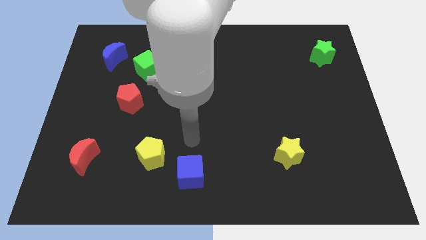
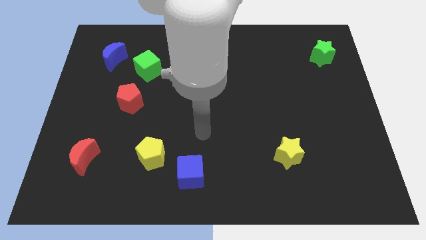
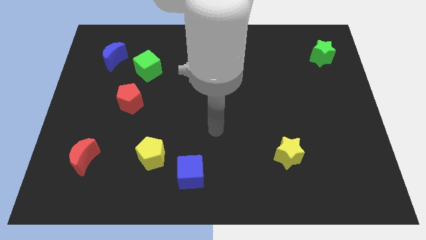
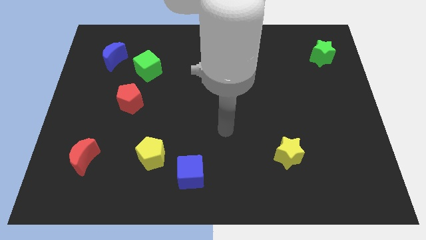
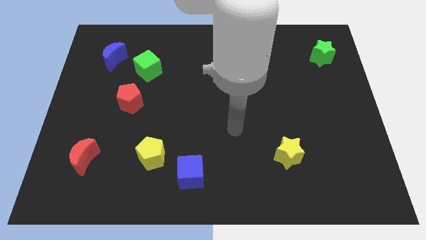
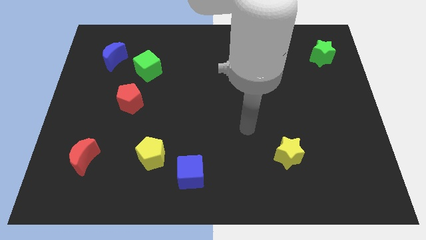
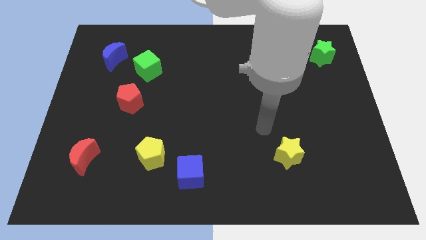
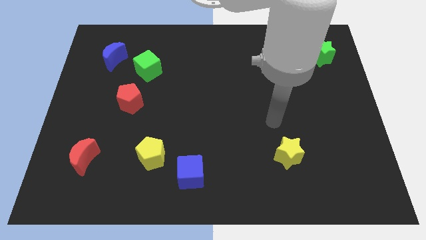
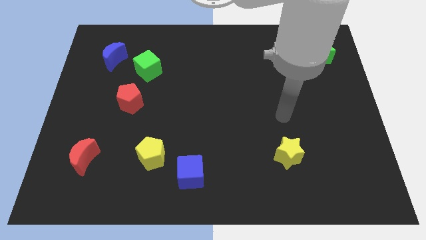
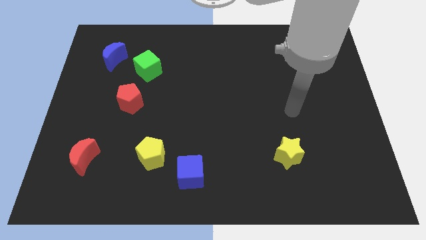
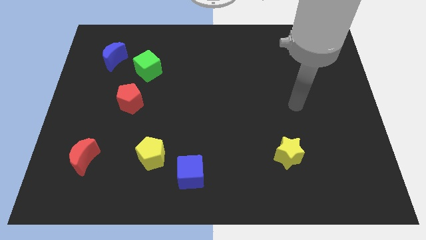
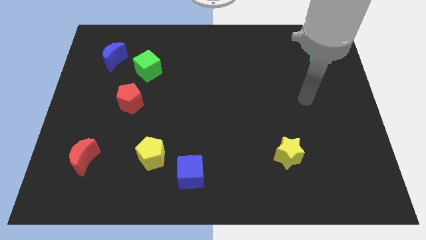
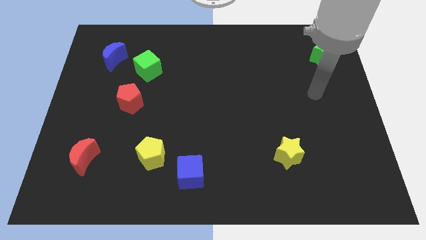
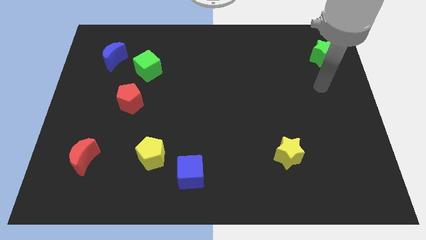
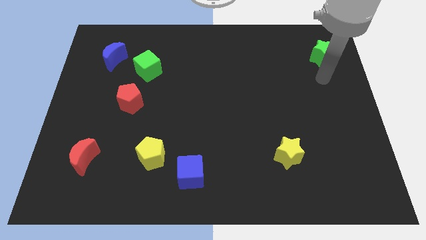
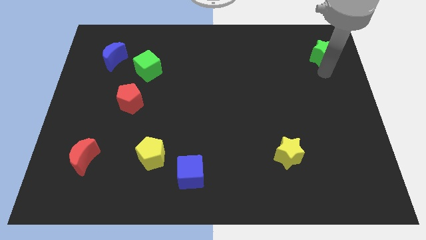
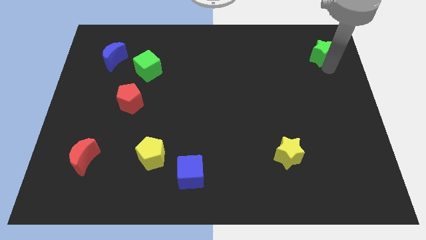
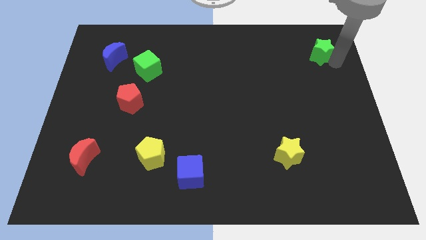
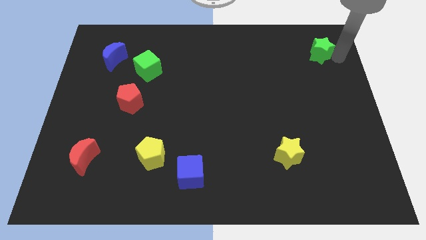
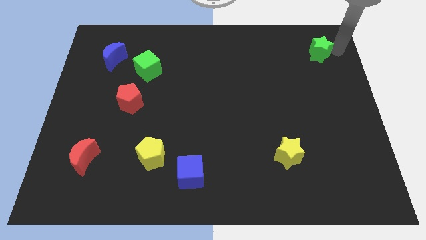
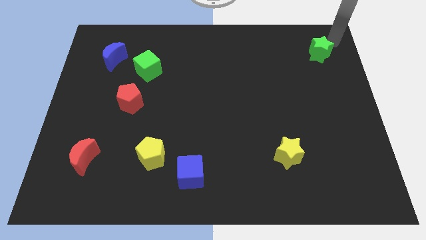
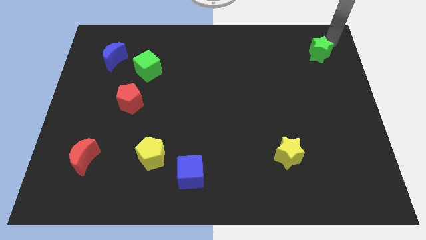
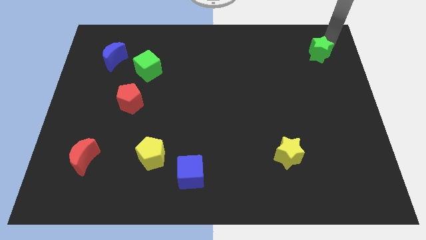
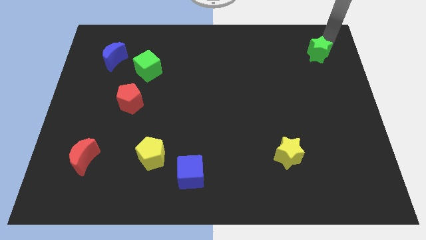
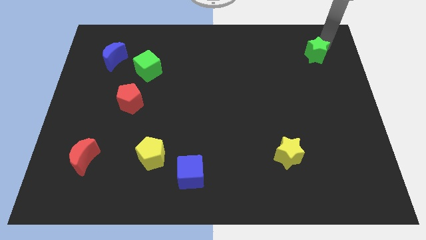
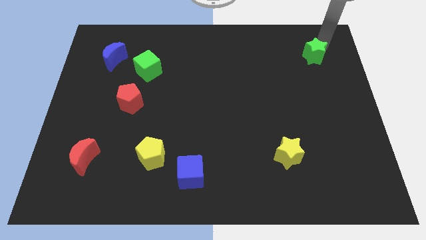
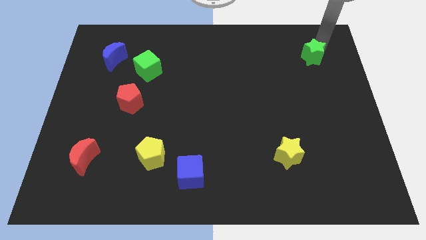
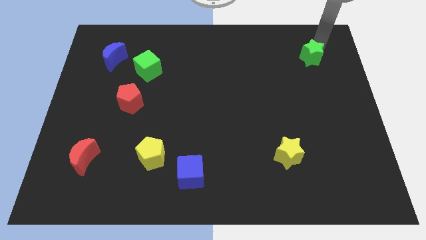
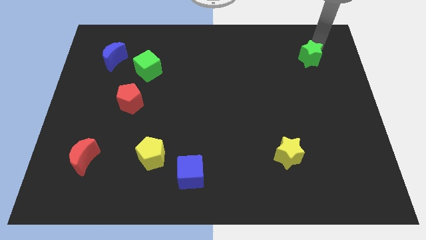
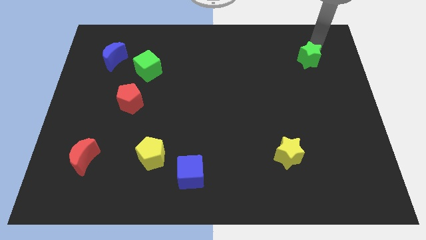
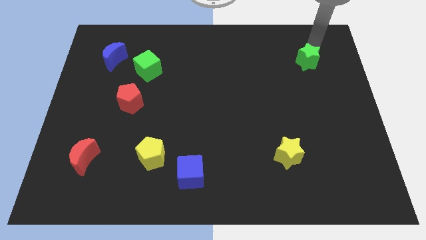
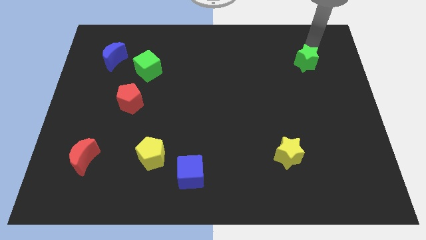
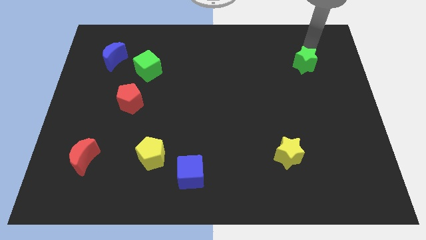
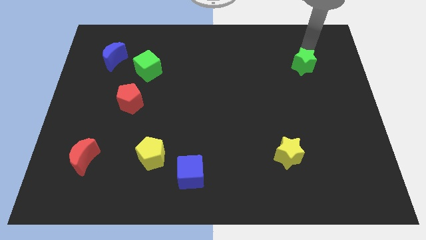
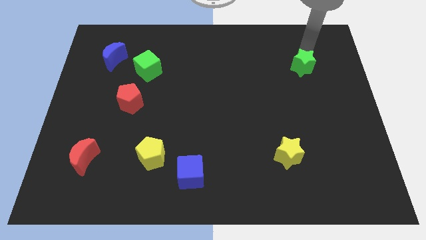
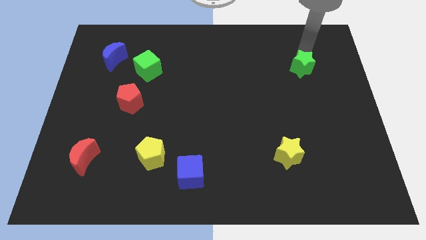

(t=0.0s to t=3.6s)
slightly move the green star down and left

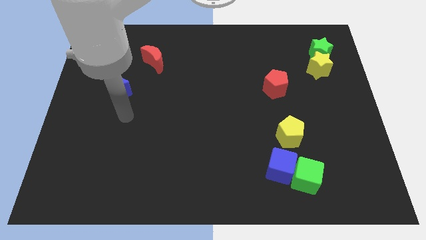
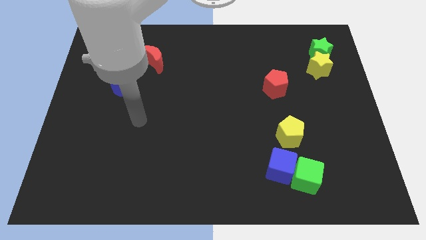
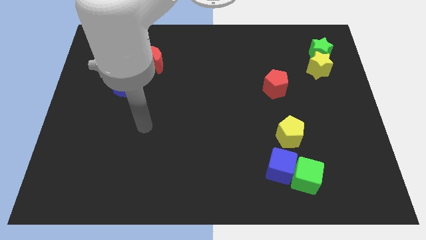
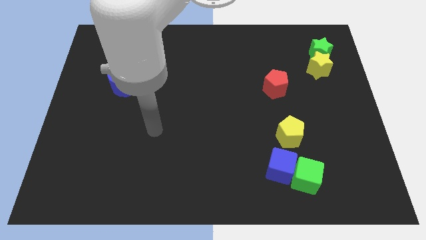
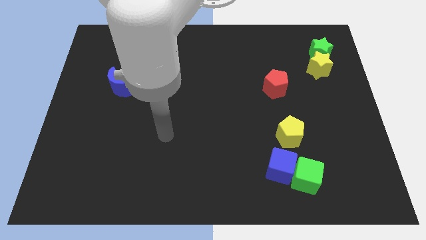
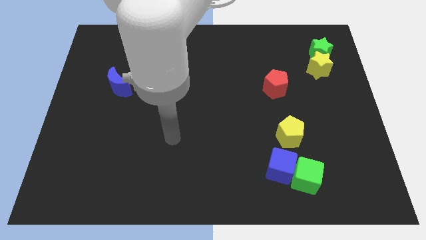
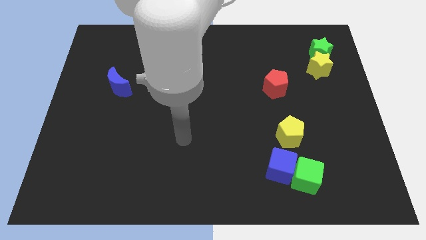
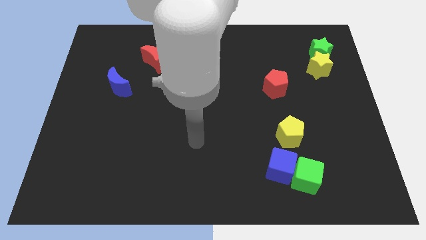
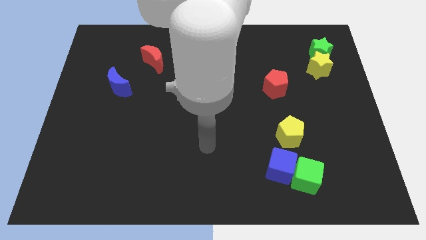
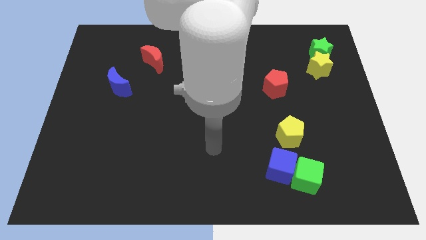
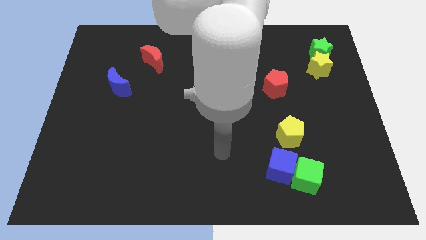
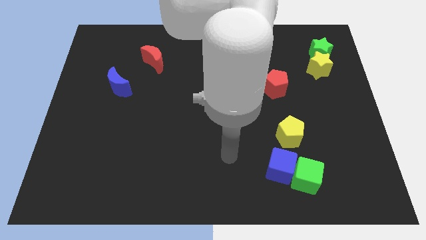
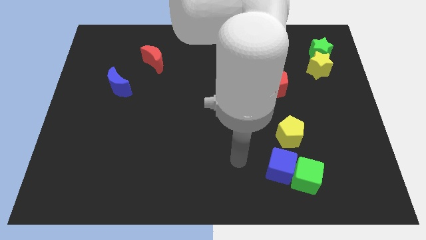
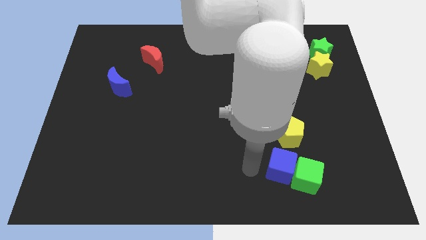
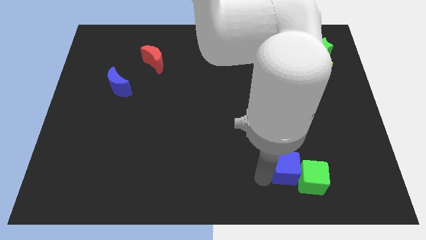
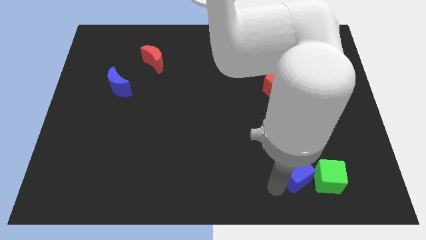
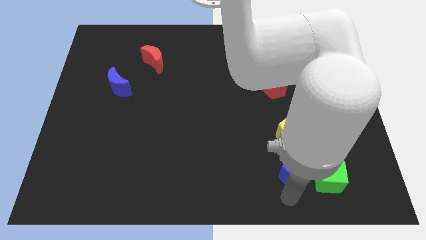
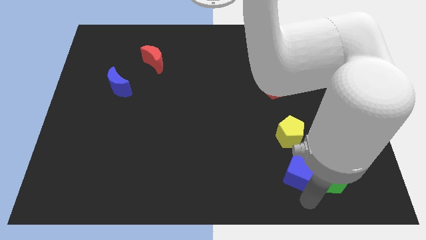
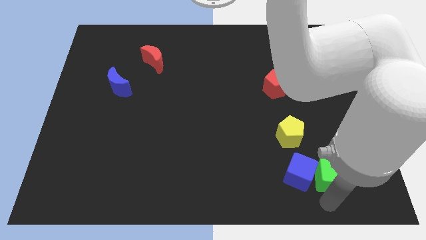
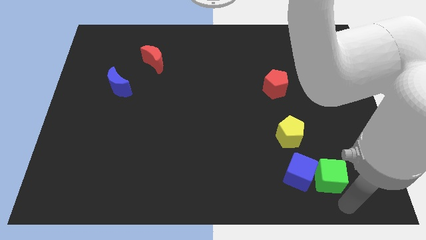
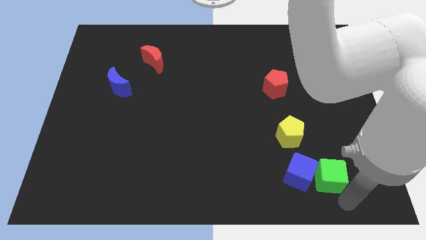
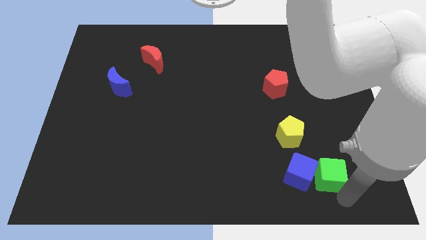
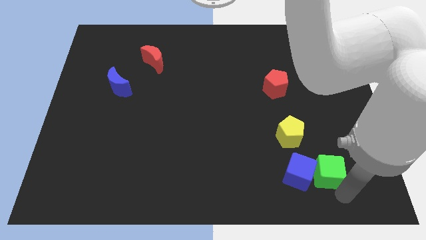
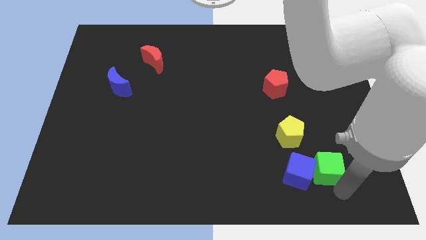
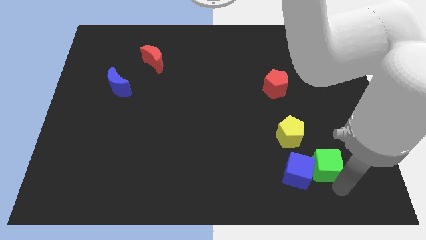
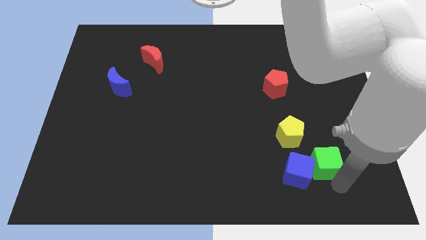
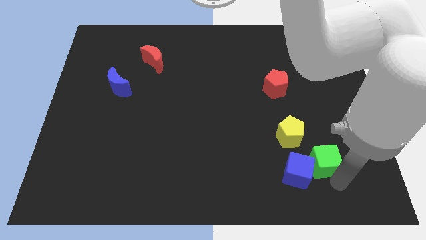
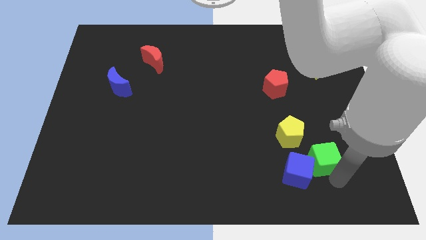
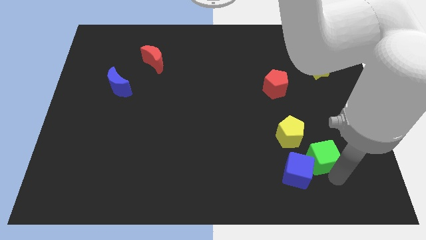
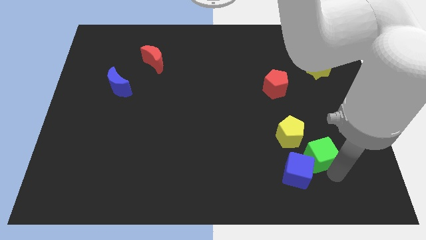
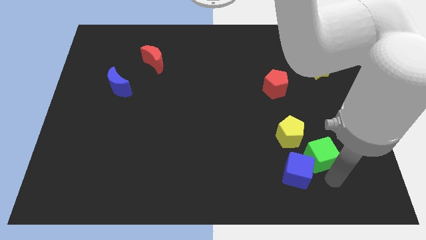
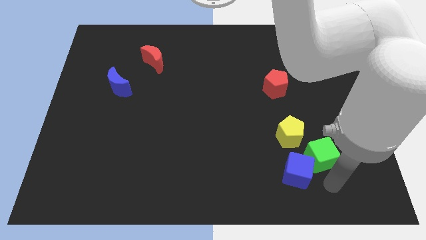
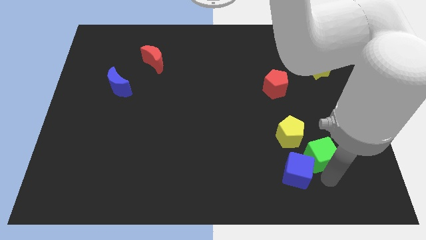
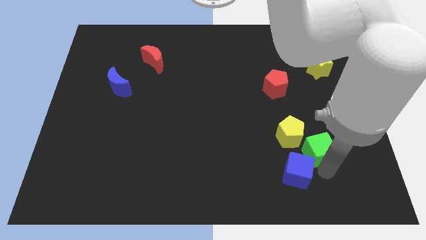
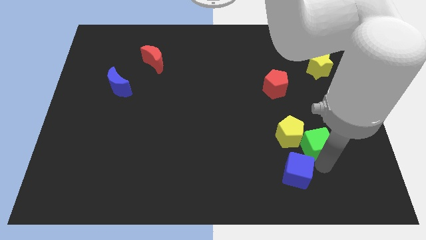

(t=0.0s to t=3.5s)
slightly push the green cube upwards

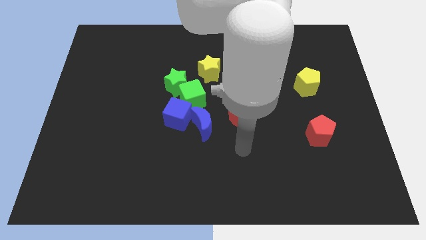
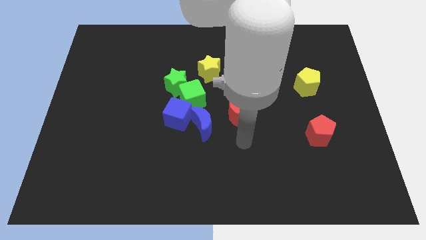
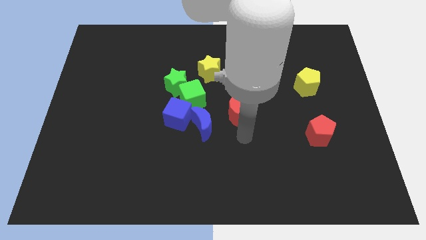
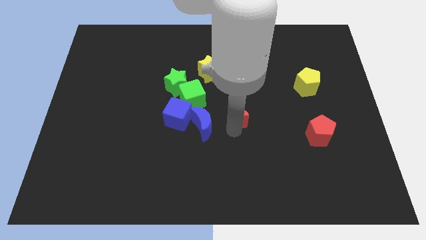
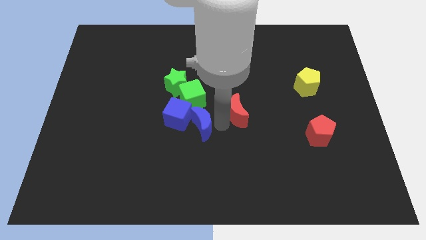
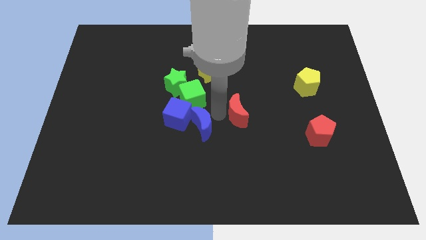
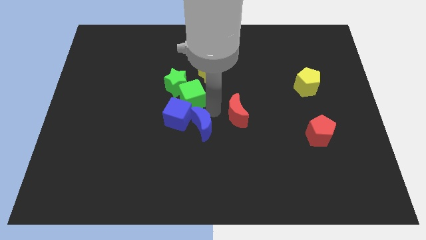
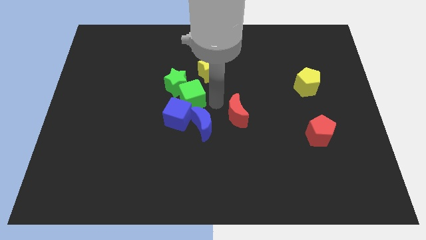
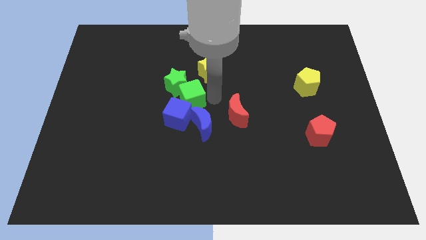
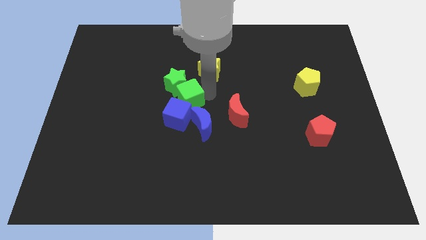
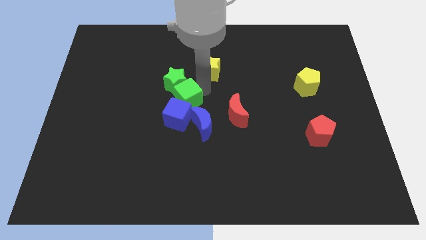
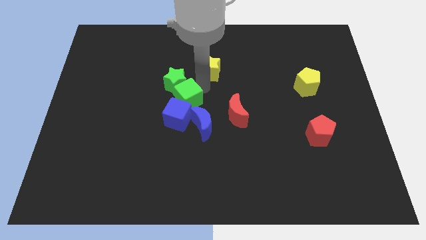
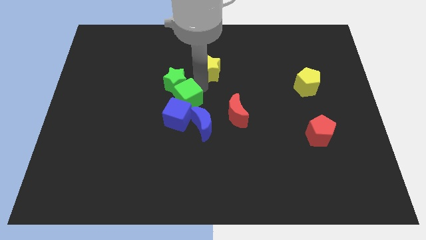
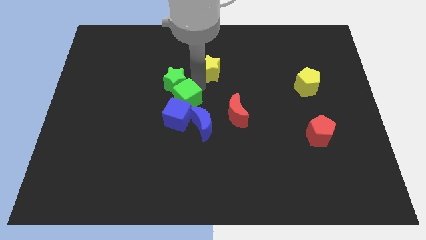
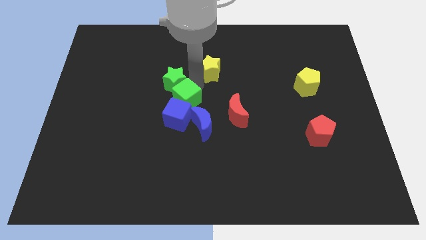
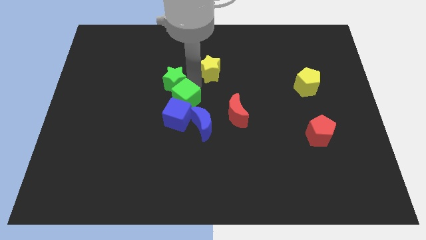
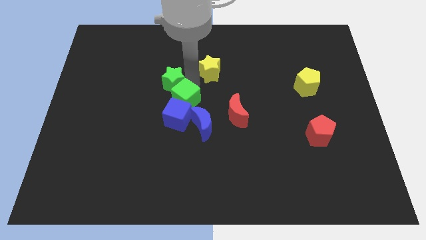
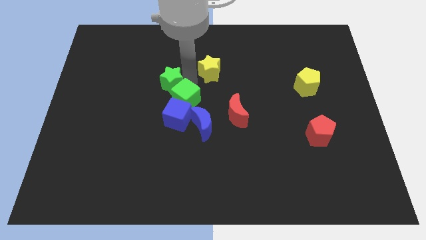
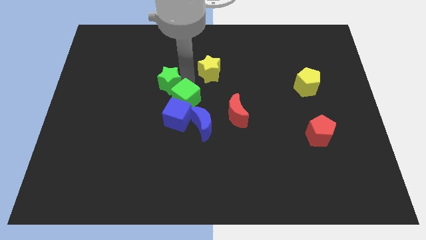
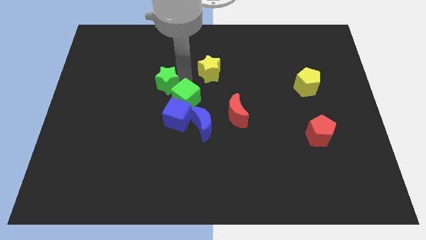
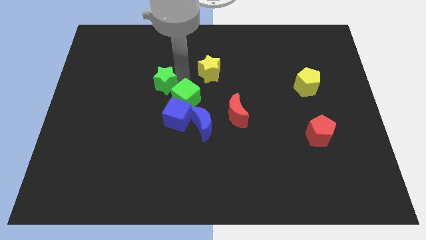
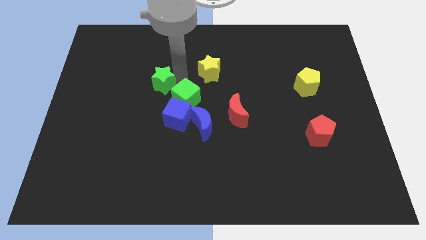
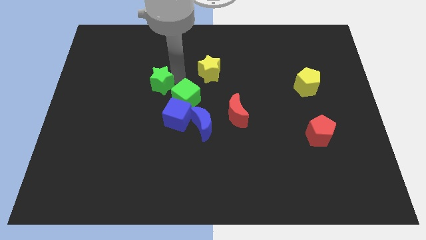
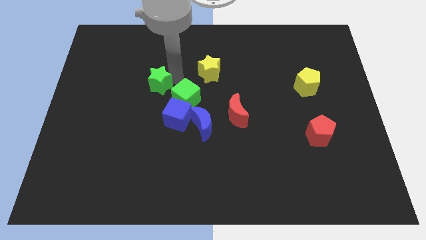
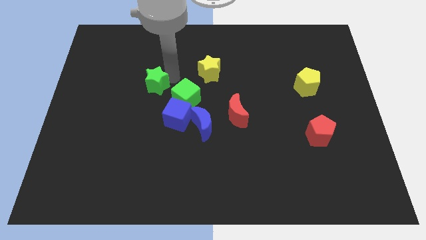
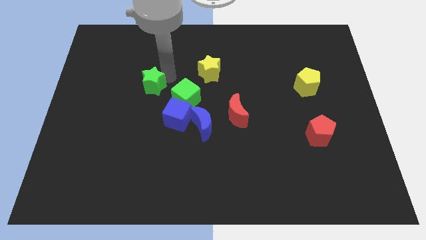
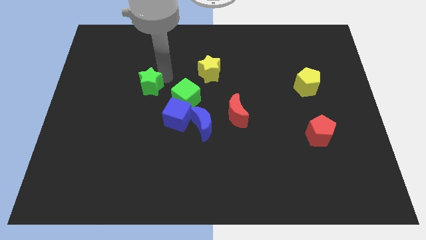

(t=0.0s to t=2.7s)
slide the green star left a little
